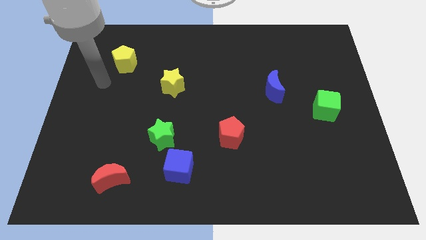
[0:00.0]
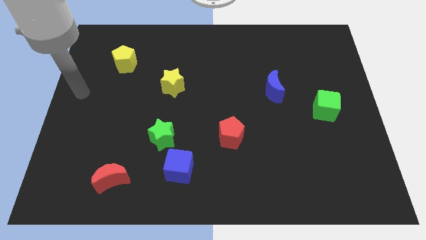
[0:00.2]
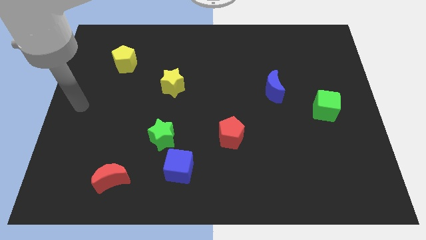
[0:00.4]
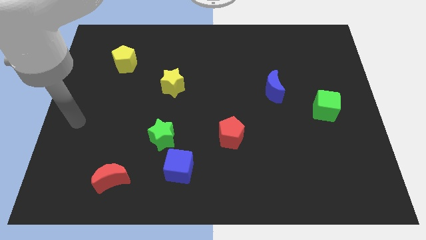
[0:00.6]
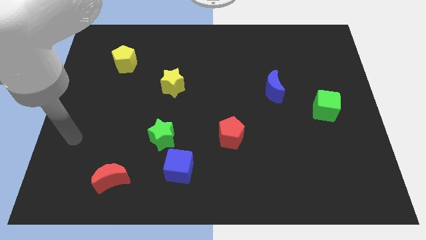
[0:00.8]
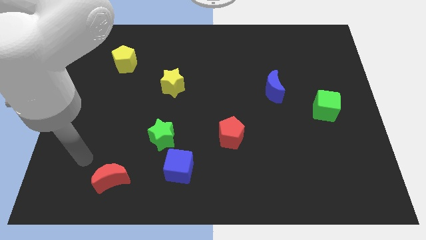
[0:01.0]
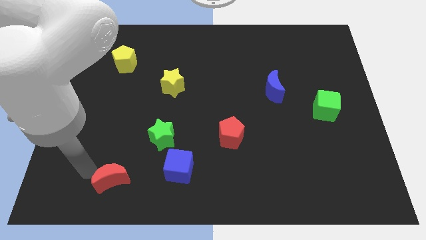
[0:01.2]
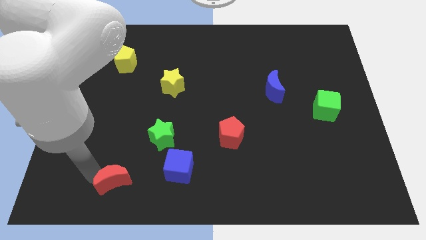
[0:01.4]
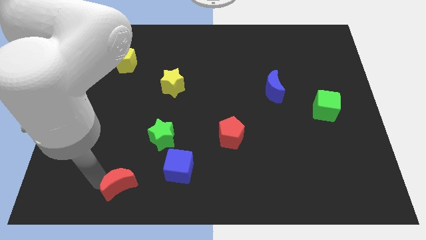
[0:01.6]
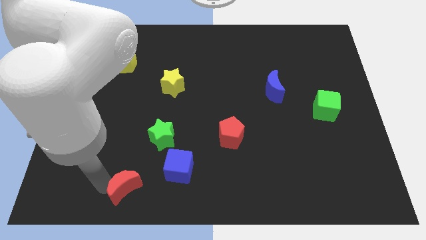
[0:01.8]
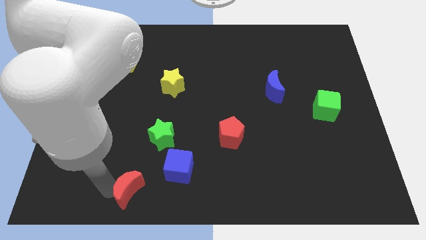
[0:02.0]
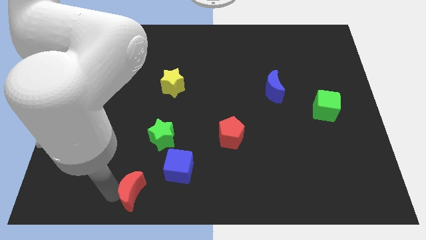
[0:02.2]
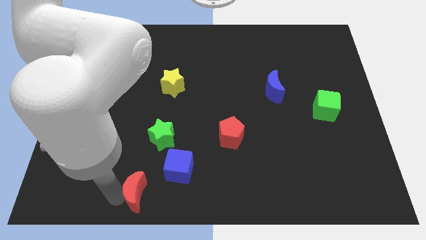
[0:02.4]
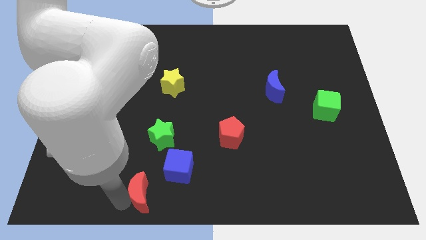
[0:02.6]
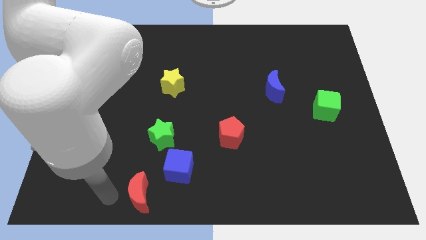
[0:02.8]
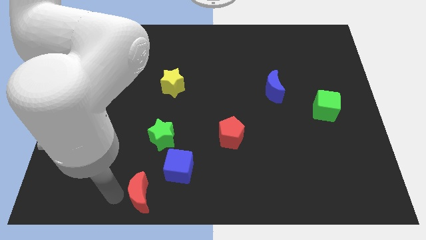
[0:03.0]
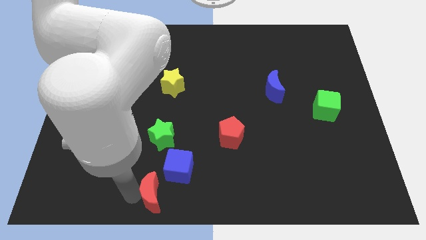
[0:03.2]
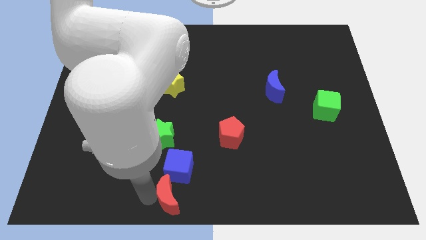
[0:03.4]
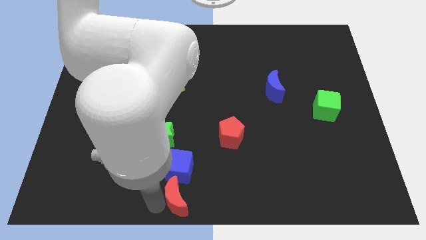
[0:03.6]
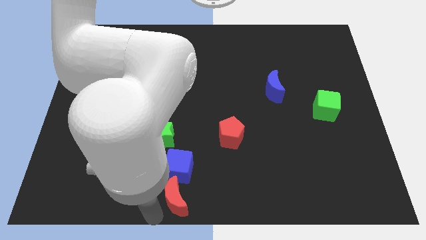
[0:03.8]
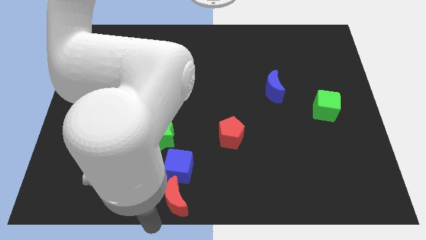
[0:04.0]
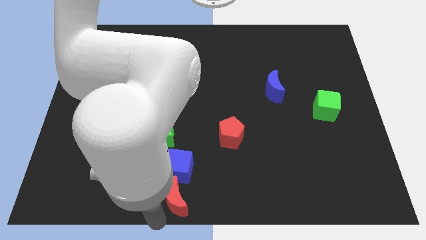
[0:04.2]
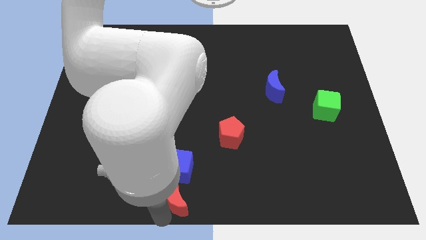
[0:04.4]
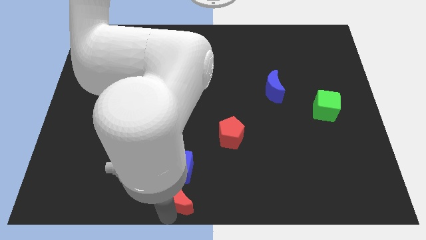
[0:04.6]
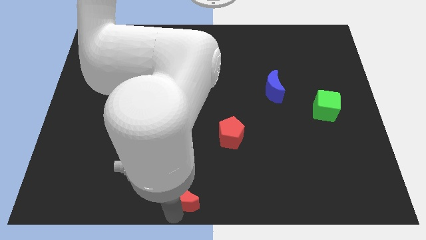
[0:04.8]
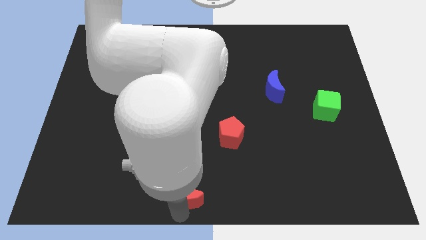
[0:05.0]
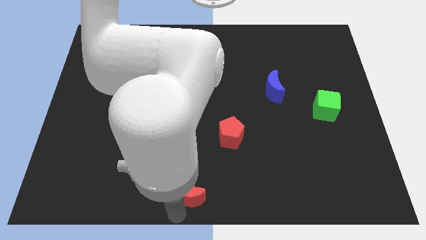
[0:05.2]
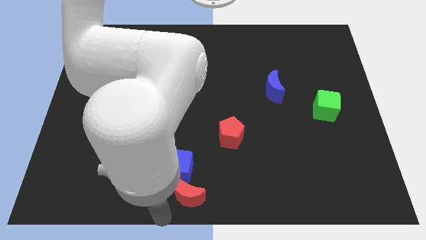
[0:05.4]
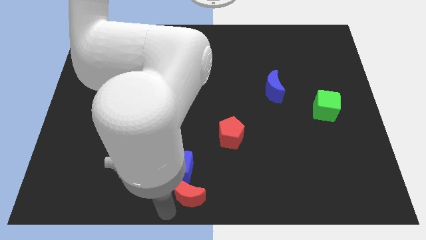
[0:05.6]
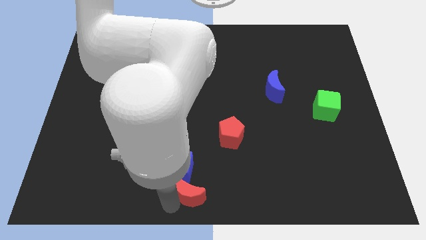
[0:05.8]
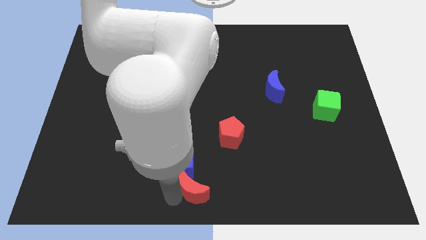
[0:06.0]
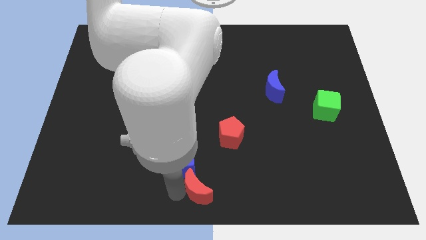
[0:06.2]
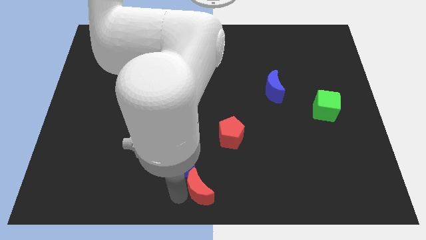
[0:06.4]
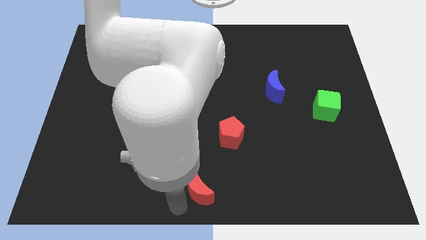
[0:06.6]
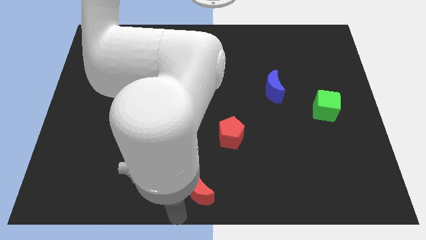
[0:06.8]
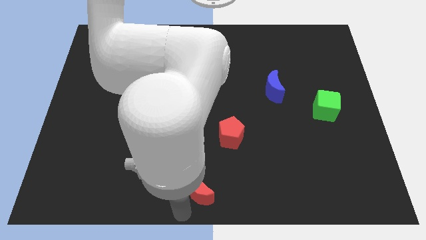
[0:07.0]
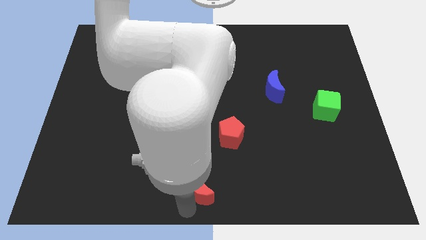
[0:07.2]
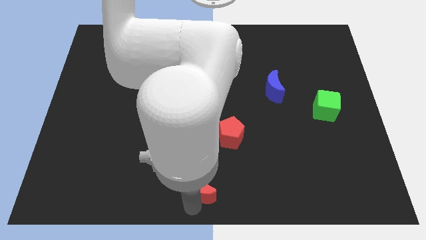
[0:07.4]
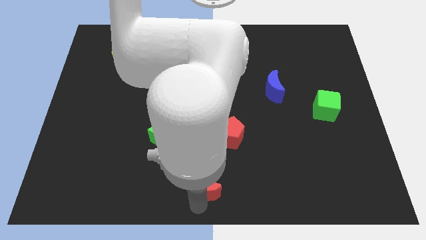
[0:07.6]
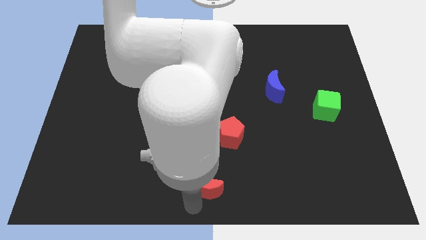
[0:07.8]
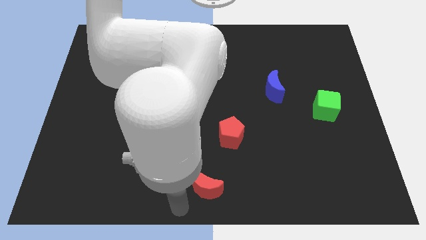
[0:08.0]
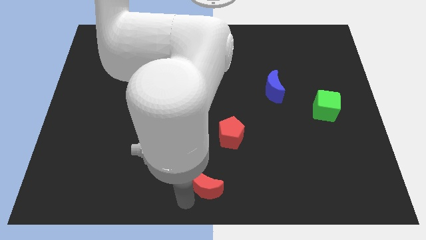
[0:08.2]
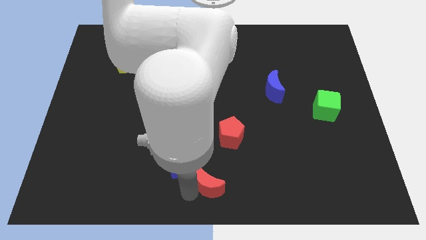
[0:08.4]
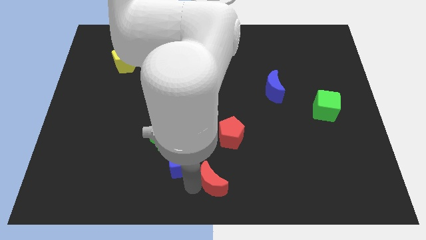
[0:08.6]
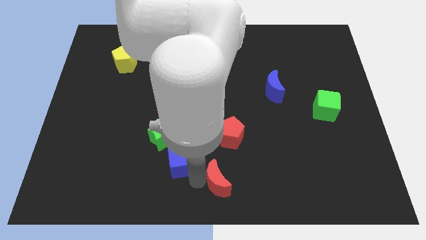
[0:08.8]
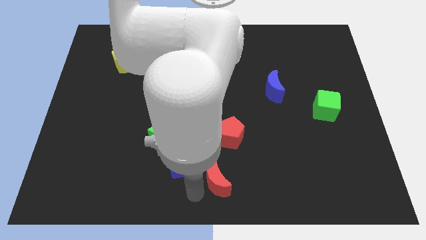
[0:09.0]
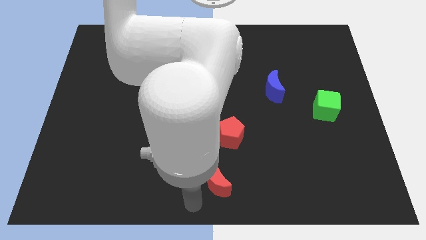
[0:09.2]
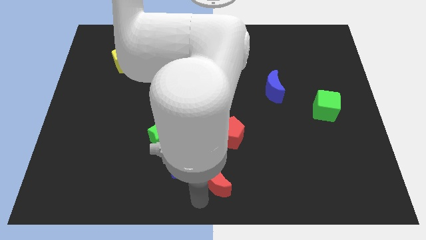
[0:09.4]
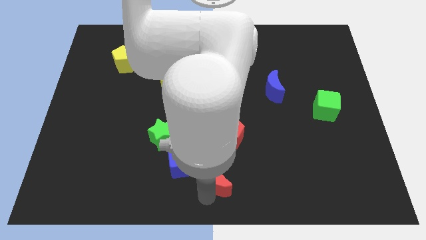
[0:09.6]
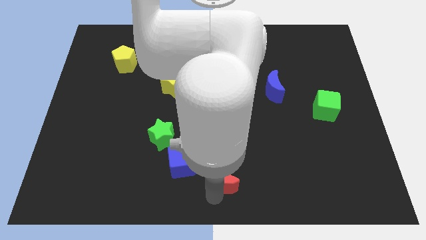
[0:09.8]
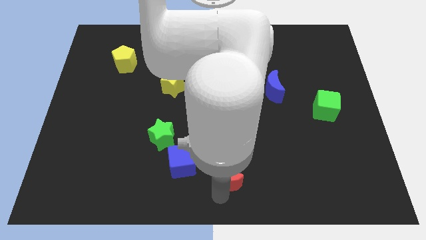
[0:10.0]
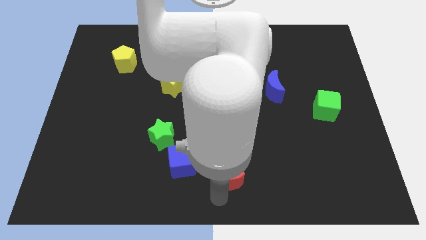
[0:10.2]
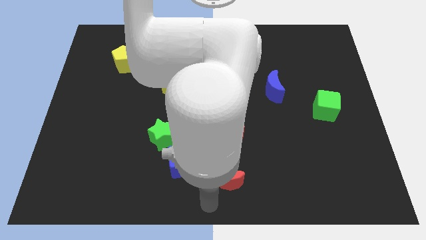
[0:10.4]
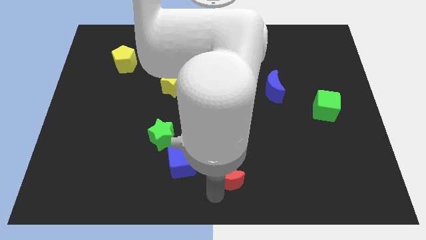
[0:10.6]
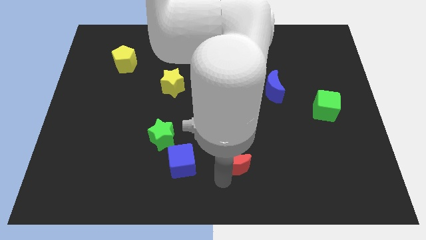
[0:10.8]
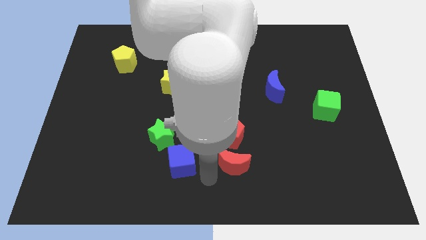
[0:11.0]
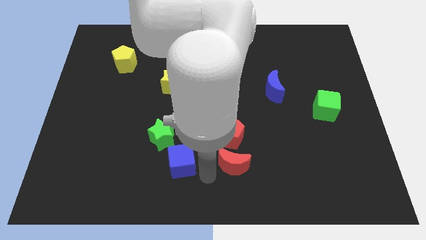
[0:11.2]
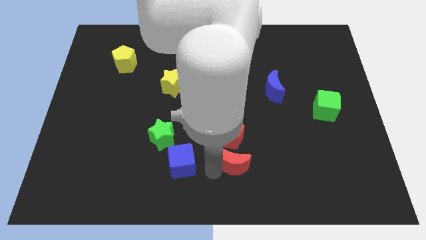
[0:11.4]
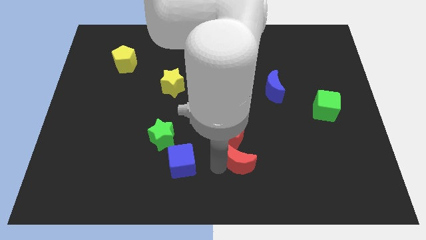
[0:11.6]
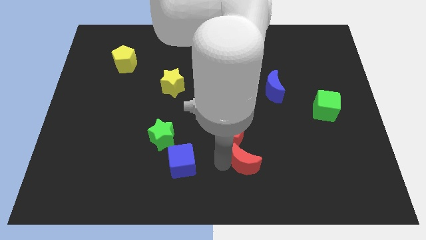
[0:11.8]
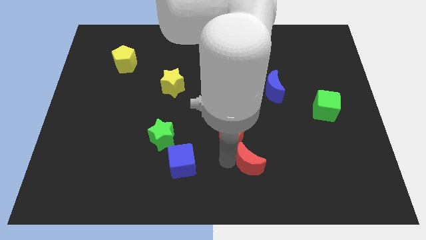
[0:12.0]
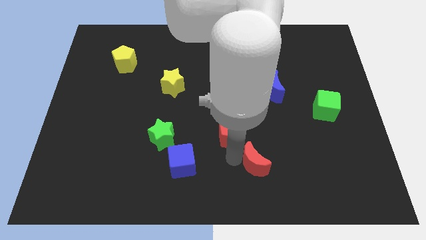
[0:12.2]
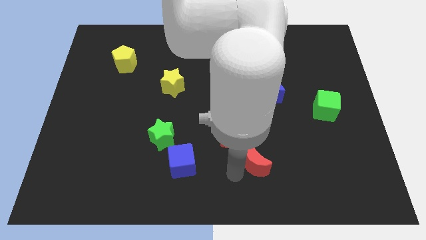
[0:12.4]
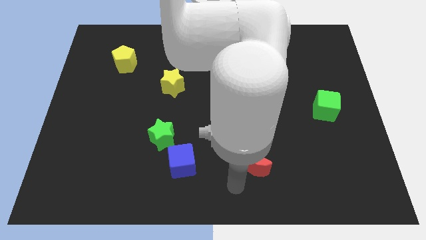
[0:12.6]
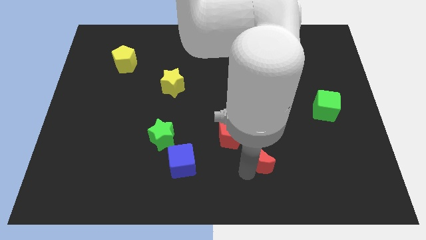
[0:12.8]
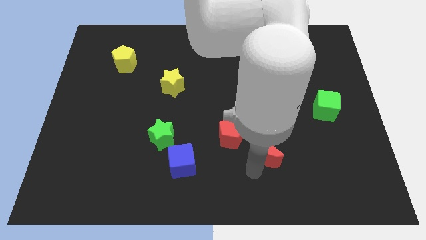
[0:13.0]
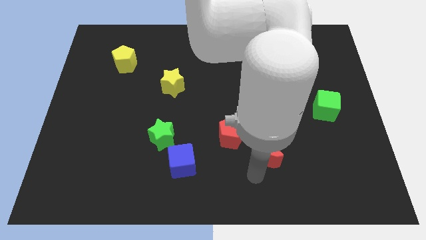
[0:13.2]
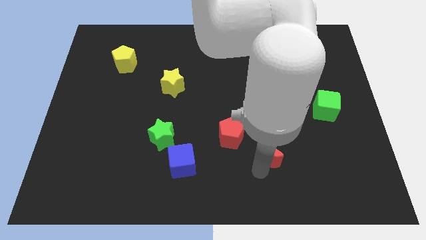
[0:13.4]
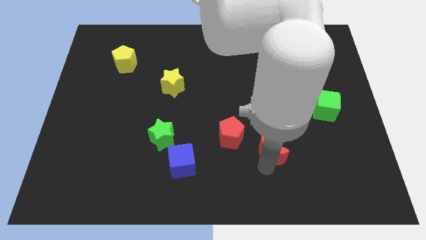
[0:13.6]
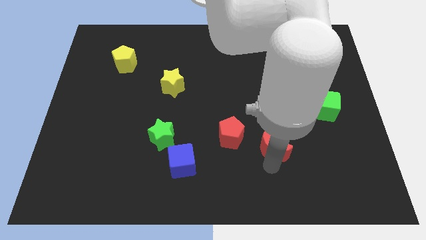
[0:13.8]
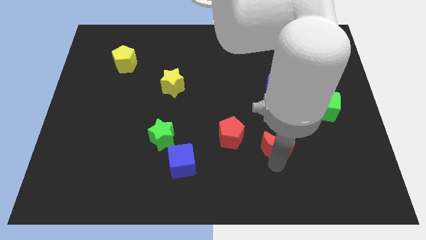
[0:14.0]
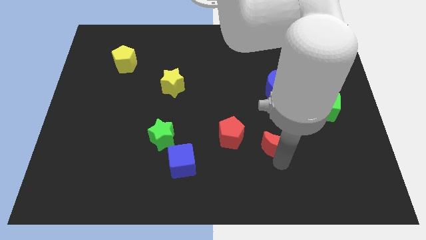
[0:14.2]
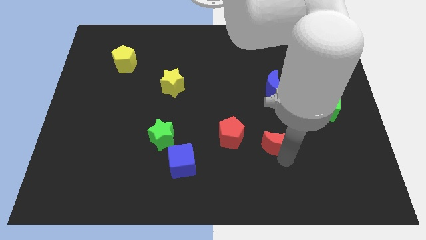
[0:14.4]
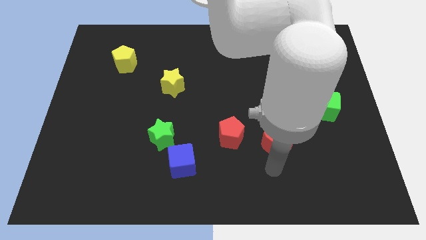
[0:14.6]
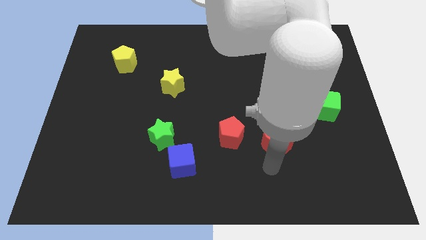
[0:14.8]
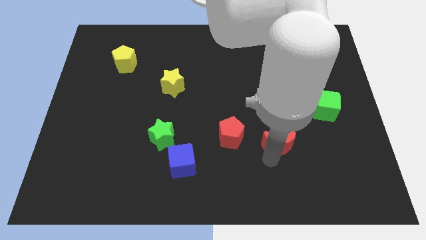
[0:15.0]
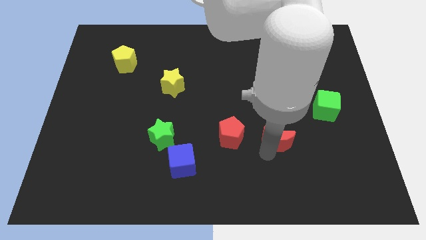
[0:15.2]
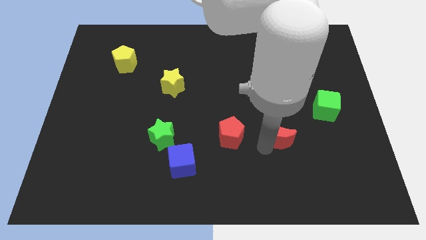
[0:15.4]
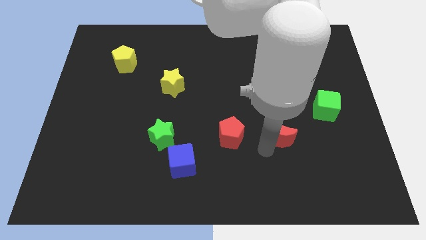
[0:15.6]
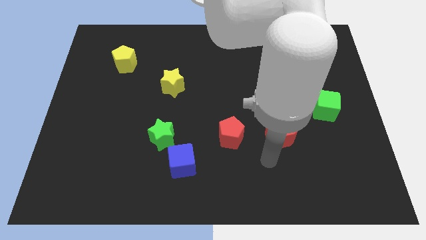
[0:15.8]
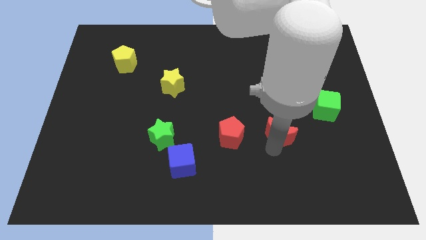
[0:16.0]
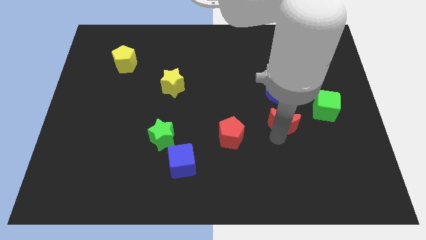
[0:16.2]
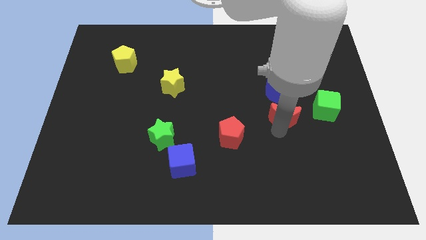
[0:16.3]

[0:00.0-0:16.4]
put the red moon diagonally down and to the right of the blue moon
